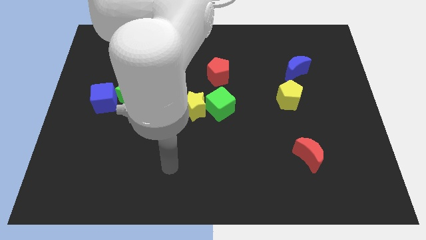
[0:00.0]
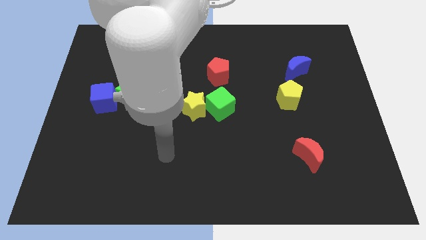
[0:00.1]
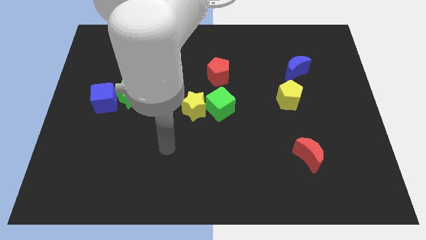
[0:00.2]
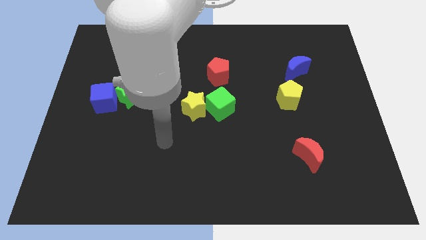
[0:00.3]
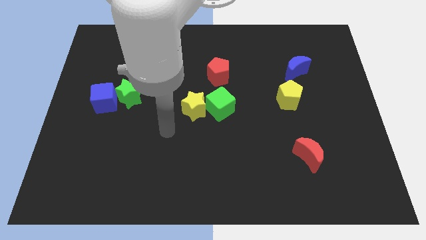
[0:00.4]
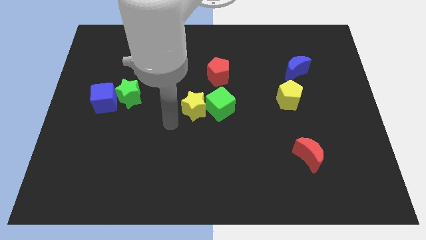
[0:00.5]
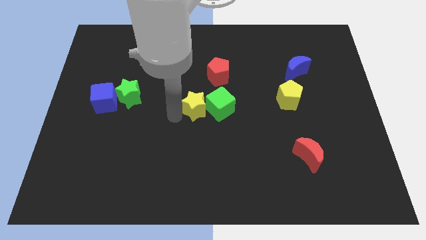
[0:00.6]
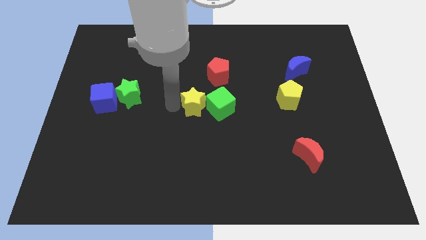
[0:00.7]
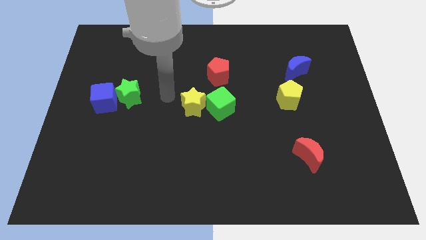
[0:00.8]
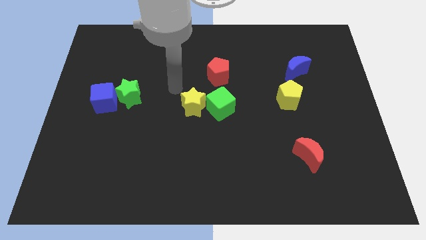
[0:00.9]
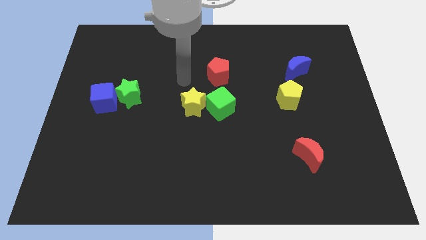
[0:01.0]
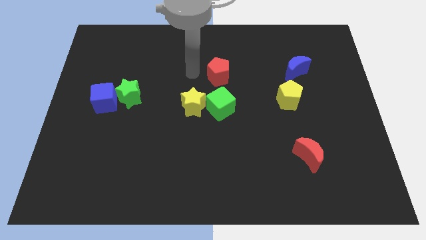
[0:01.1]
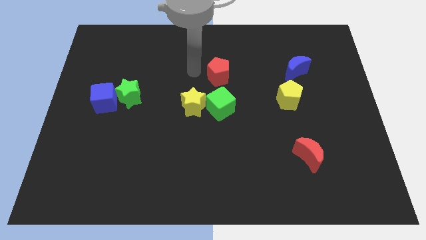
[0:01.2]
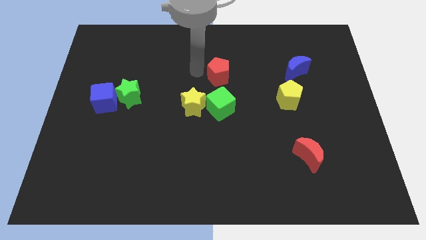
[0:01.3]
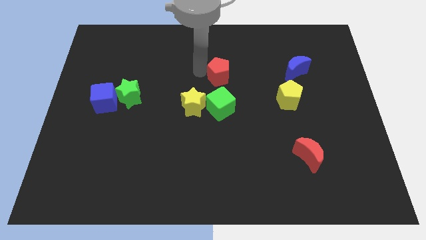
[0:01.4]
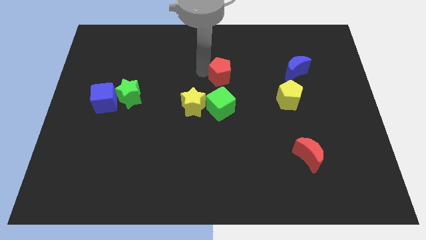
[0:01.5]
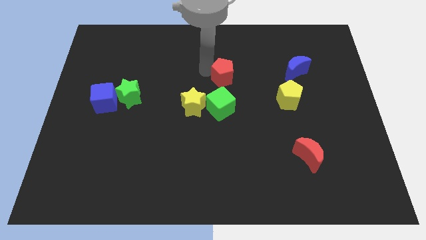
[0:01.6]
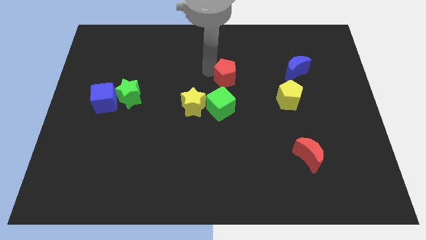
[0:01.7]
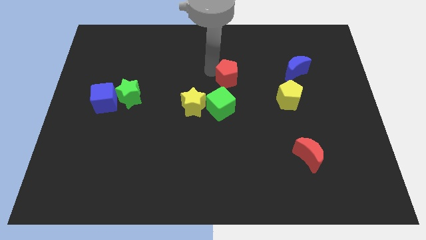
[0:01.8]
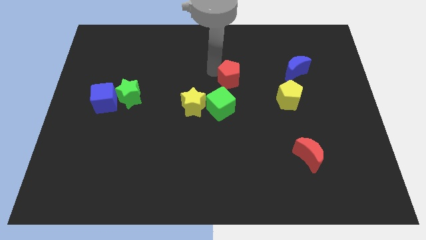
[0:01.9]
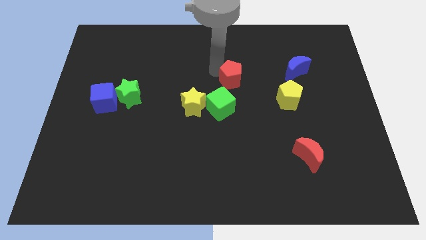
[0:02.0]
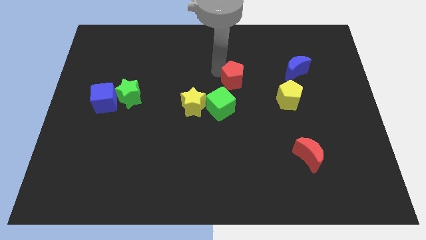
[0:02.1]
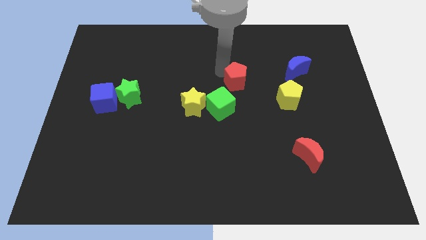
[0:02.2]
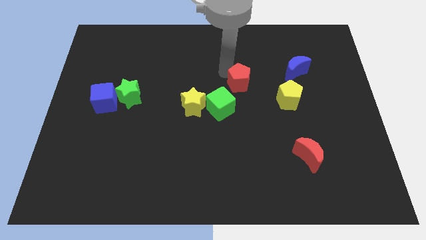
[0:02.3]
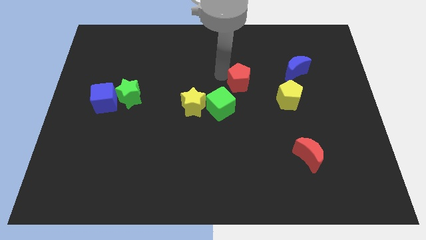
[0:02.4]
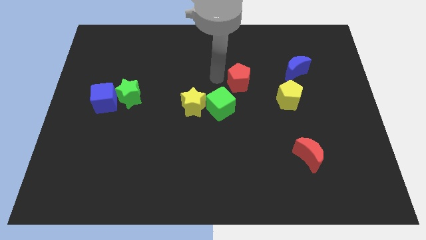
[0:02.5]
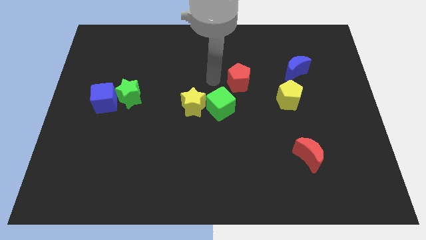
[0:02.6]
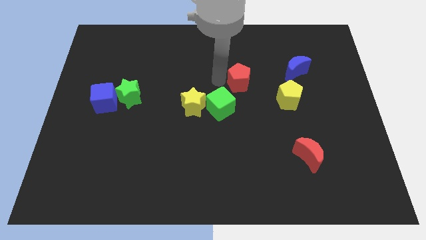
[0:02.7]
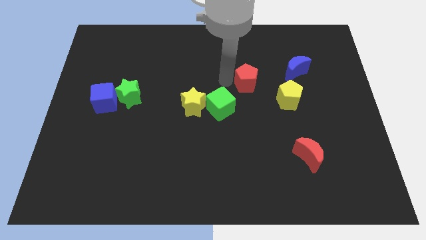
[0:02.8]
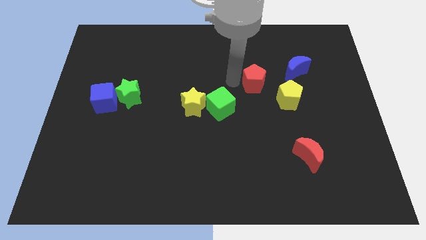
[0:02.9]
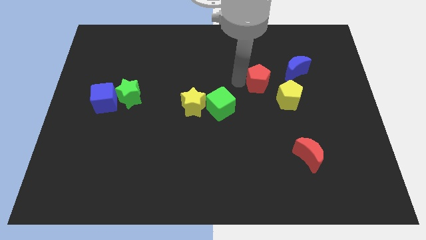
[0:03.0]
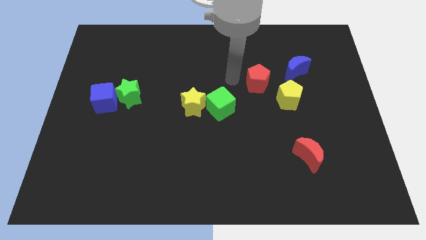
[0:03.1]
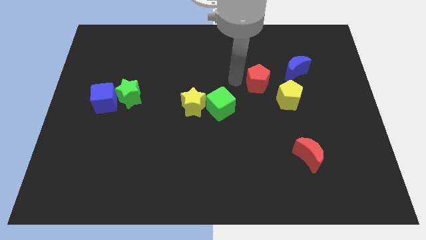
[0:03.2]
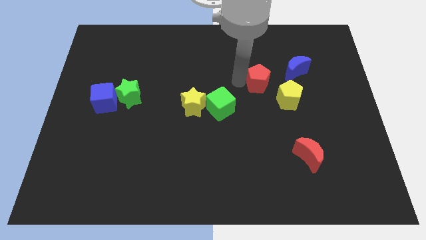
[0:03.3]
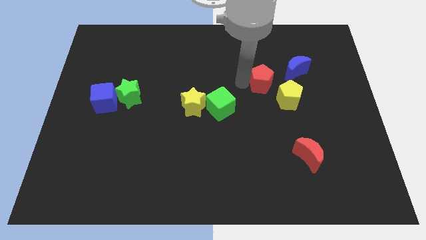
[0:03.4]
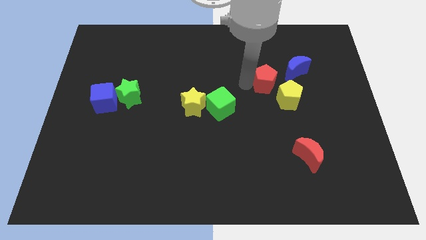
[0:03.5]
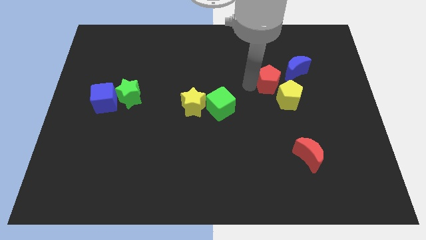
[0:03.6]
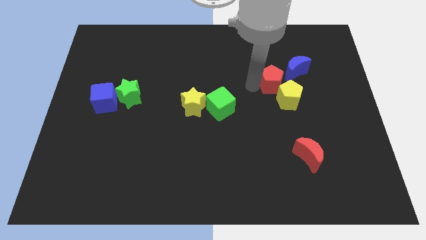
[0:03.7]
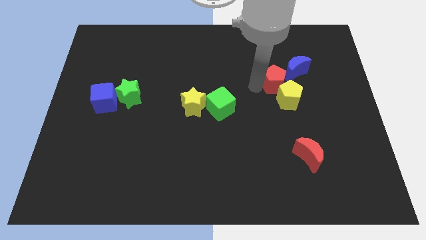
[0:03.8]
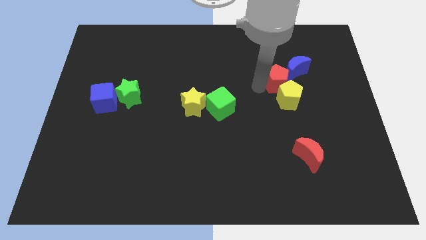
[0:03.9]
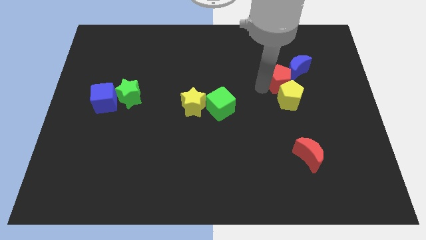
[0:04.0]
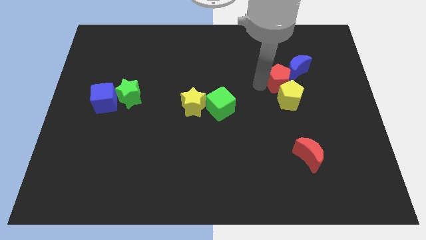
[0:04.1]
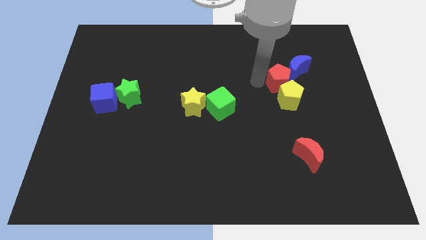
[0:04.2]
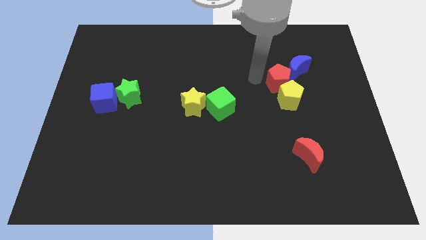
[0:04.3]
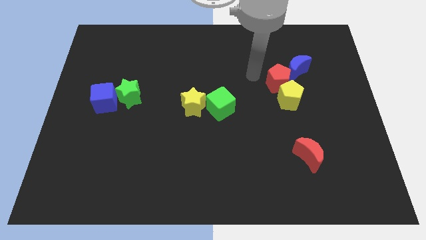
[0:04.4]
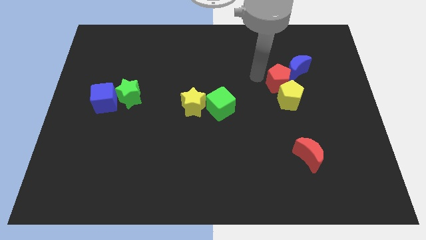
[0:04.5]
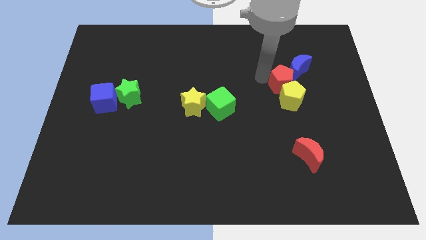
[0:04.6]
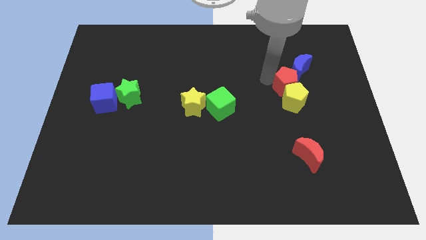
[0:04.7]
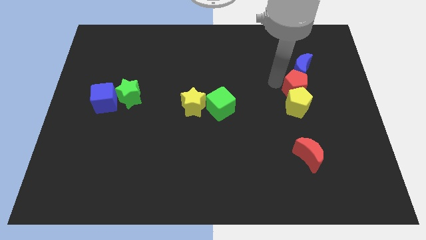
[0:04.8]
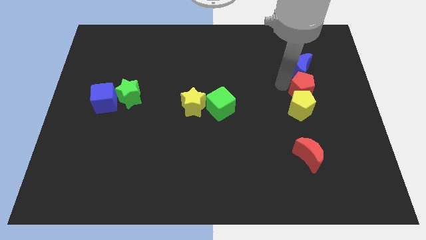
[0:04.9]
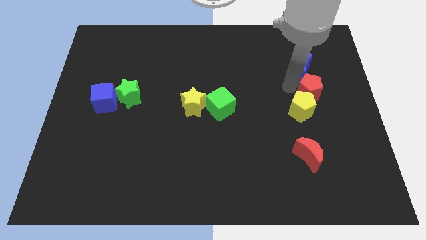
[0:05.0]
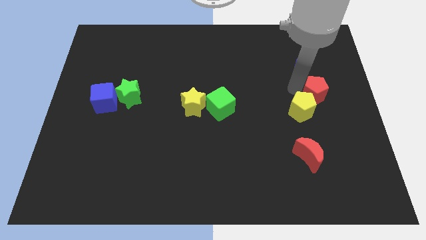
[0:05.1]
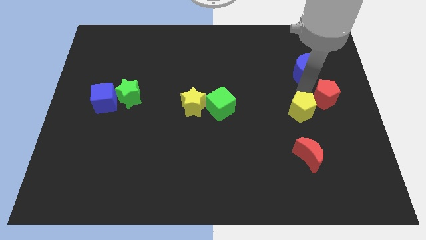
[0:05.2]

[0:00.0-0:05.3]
move the red pentagon to the center right
